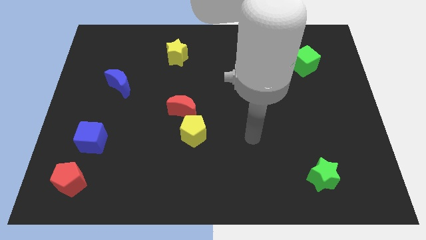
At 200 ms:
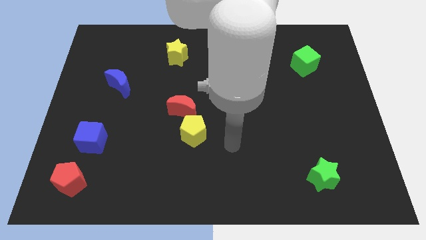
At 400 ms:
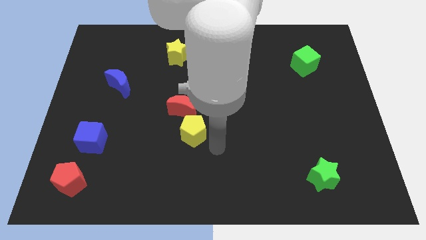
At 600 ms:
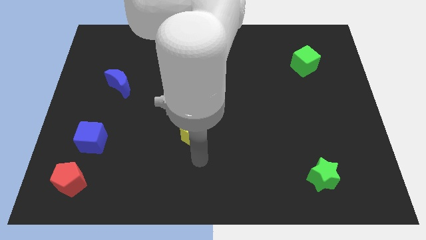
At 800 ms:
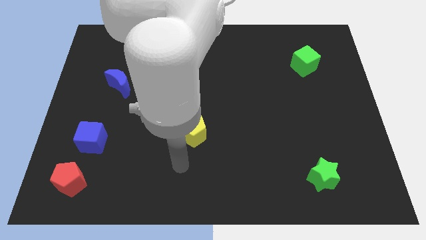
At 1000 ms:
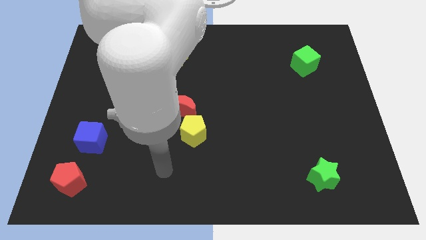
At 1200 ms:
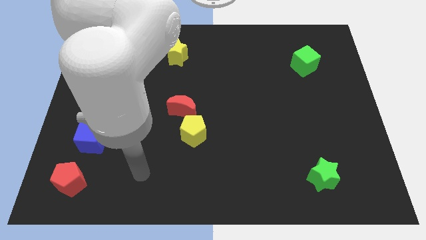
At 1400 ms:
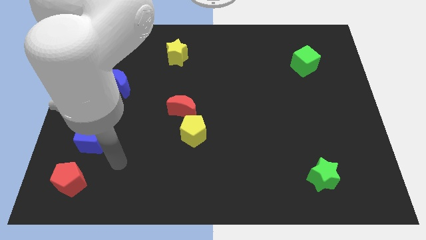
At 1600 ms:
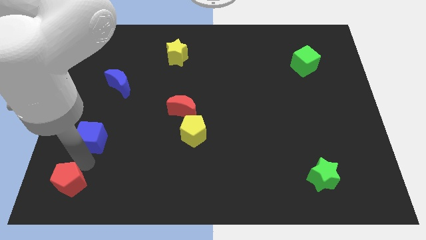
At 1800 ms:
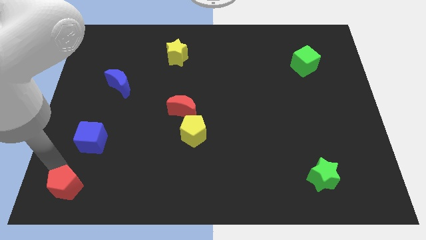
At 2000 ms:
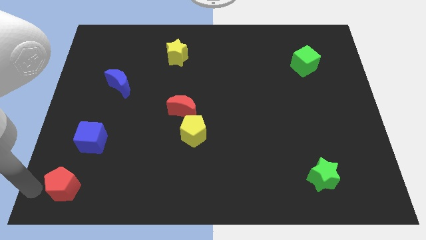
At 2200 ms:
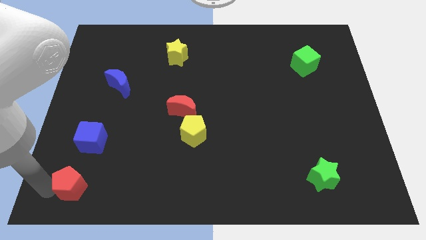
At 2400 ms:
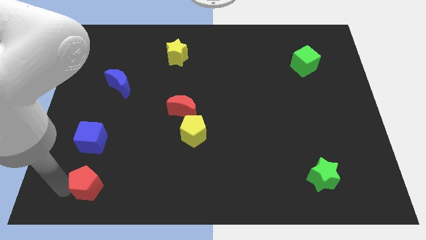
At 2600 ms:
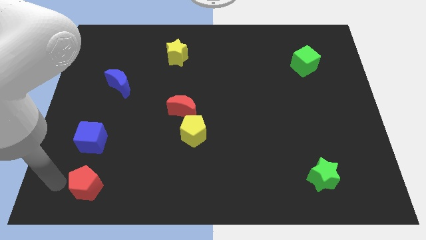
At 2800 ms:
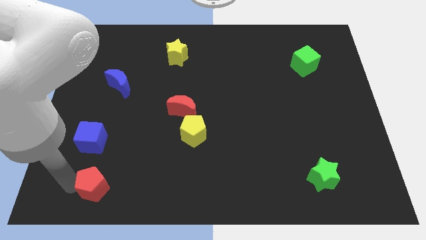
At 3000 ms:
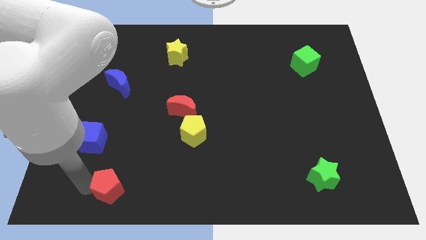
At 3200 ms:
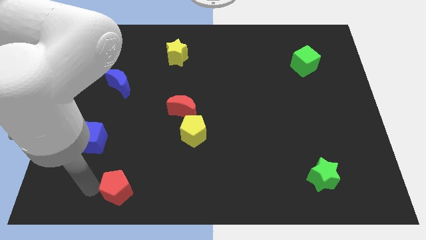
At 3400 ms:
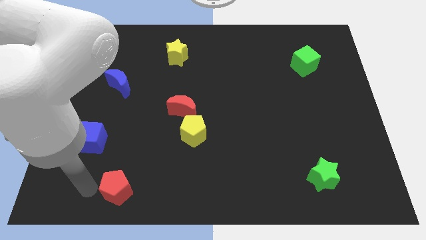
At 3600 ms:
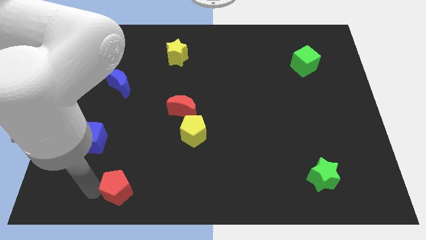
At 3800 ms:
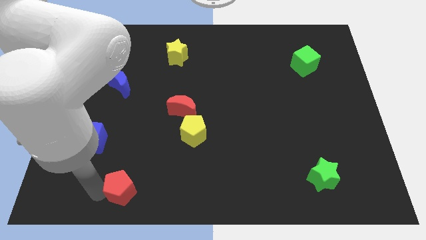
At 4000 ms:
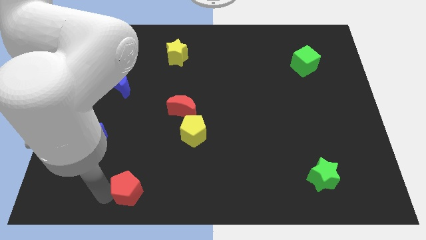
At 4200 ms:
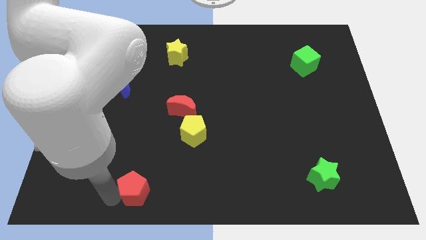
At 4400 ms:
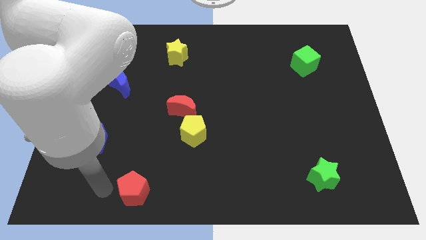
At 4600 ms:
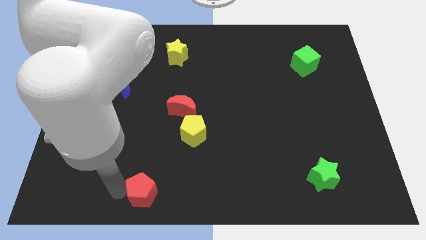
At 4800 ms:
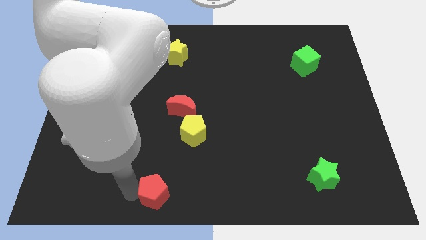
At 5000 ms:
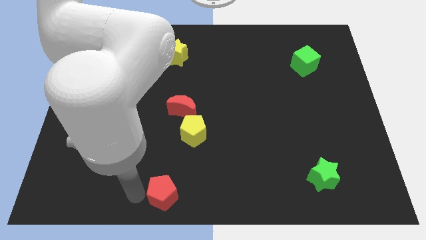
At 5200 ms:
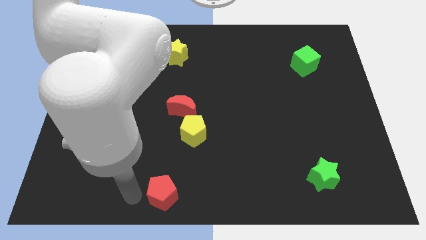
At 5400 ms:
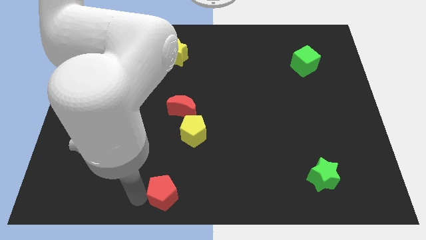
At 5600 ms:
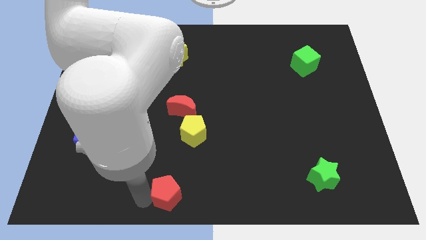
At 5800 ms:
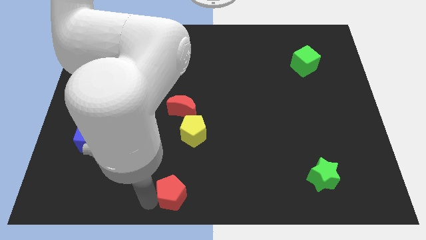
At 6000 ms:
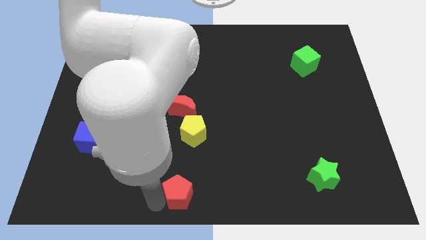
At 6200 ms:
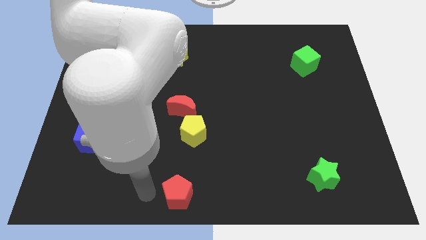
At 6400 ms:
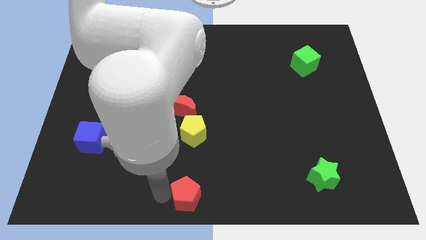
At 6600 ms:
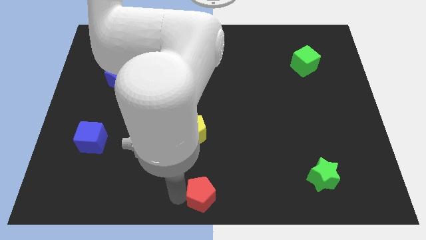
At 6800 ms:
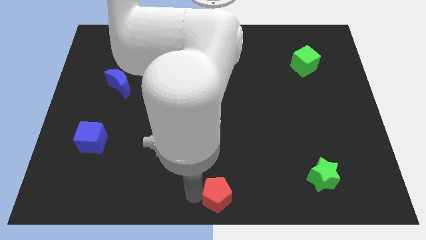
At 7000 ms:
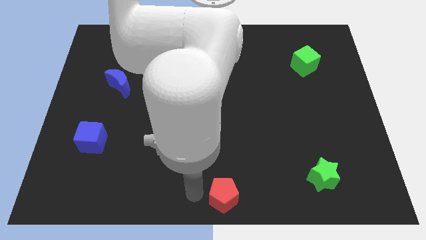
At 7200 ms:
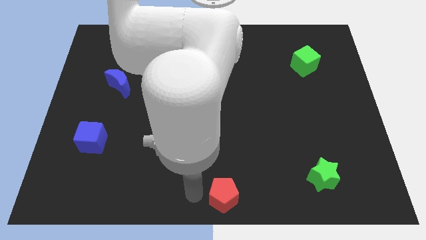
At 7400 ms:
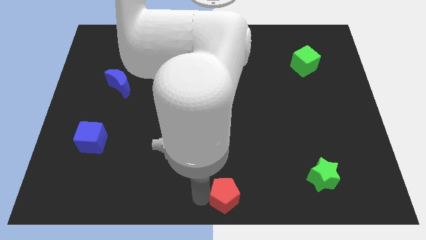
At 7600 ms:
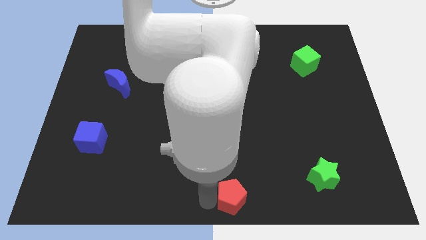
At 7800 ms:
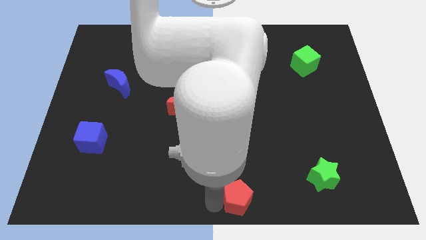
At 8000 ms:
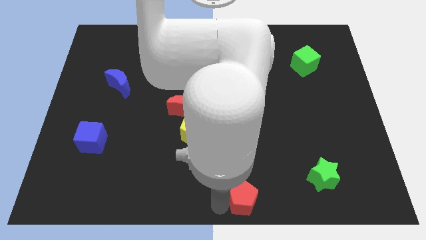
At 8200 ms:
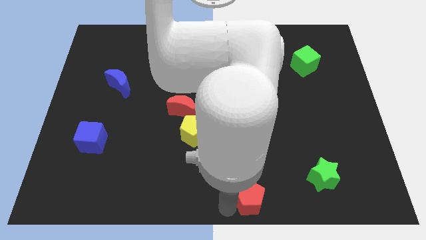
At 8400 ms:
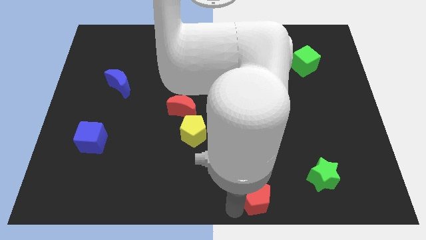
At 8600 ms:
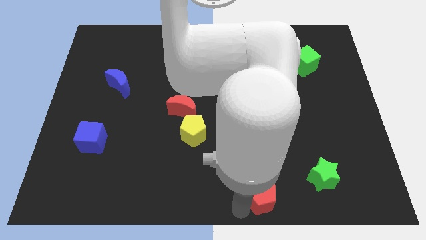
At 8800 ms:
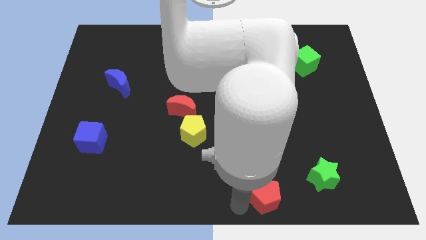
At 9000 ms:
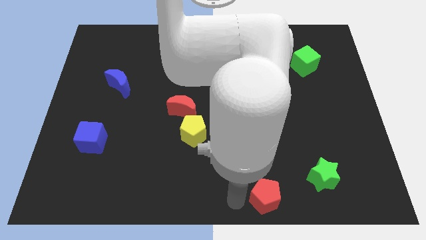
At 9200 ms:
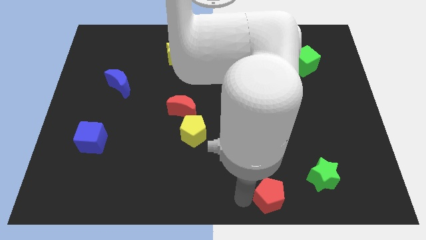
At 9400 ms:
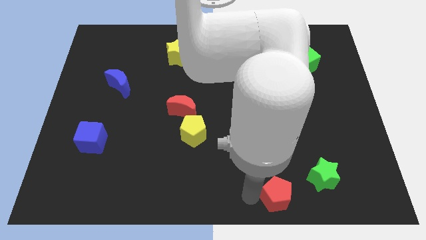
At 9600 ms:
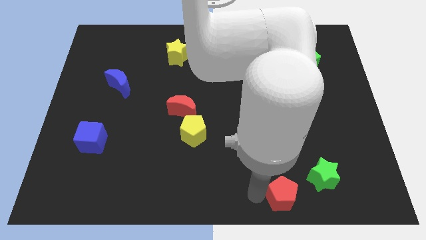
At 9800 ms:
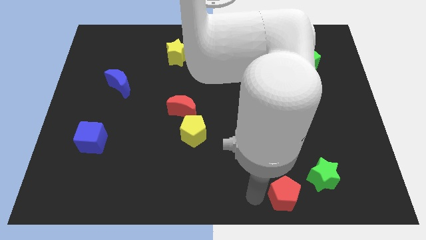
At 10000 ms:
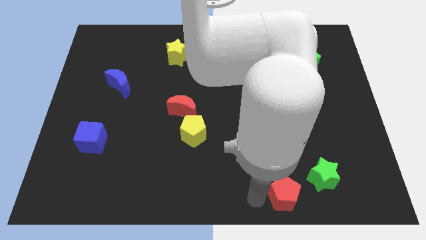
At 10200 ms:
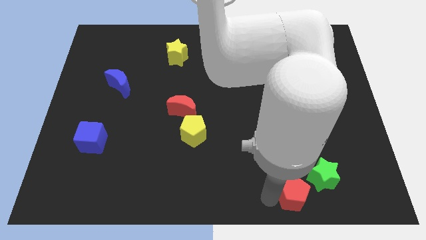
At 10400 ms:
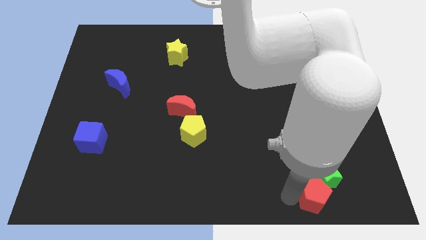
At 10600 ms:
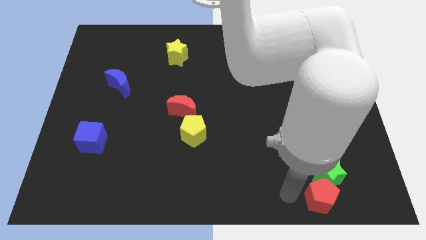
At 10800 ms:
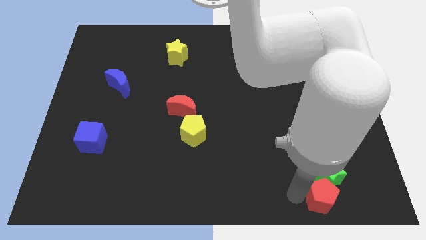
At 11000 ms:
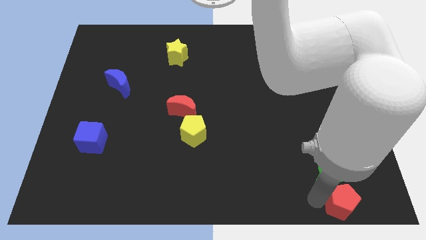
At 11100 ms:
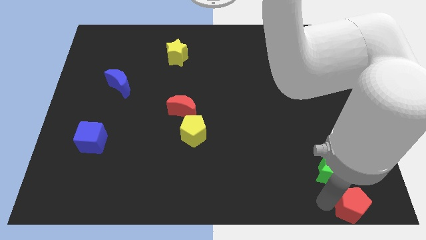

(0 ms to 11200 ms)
put the red pentagon to the bottom right of the board

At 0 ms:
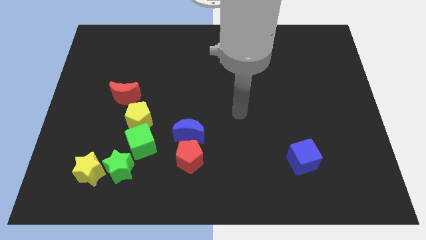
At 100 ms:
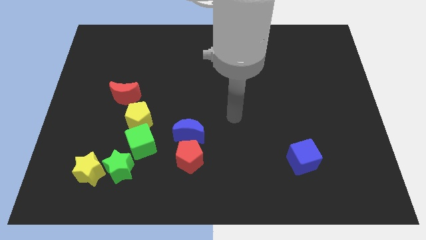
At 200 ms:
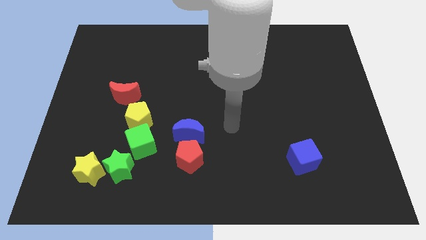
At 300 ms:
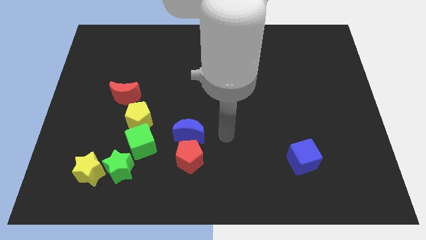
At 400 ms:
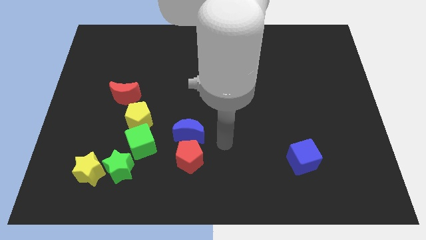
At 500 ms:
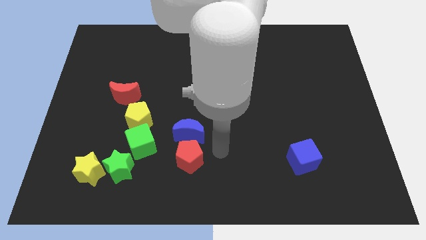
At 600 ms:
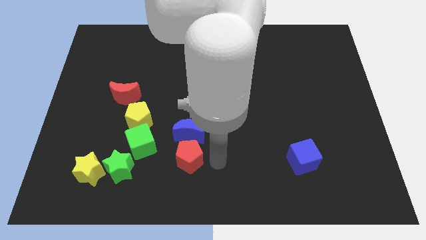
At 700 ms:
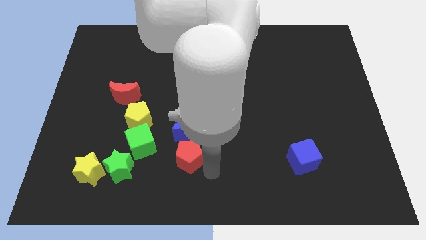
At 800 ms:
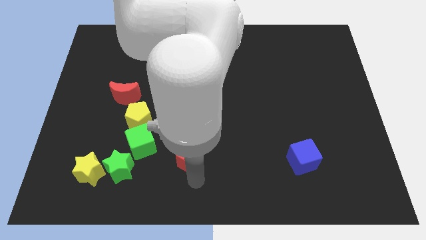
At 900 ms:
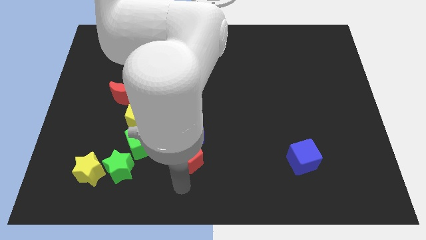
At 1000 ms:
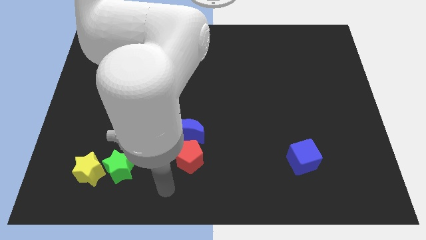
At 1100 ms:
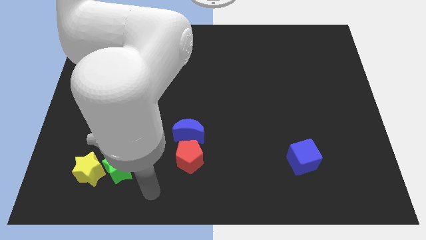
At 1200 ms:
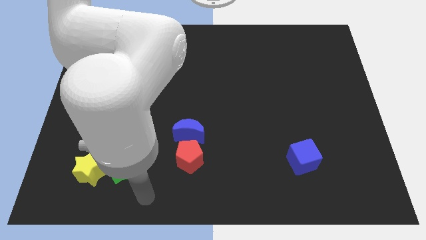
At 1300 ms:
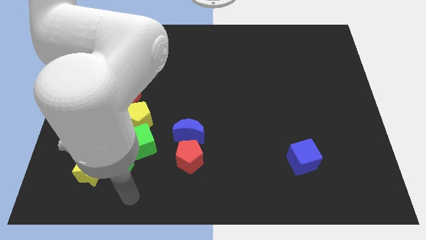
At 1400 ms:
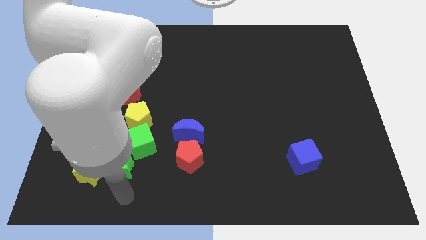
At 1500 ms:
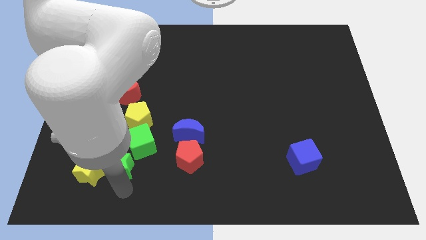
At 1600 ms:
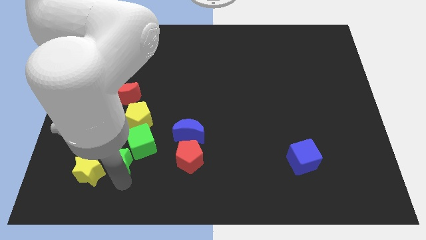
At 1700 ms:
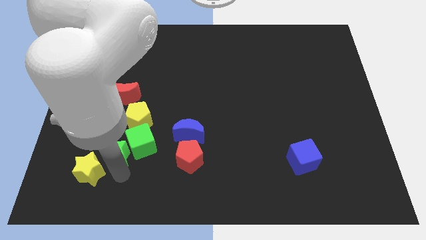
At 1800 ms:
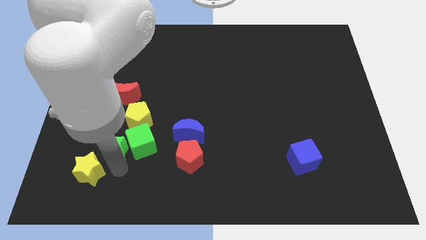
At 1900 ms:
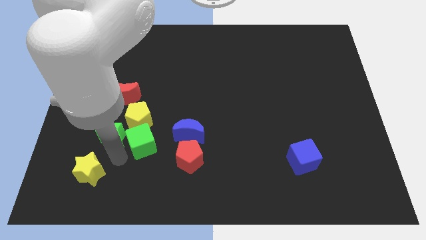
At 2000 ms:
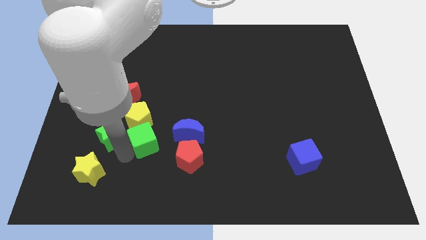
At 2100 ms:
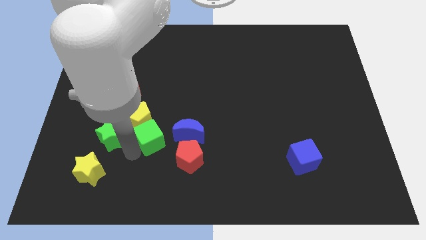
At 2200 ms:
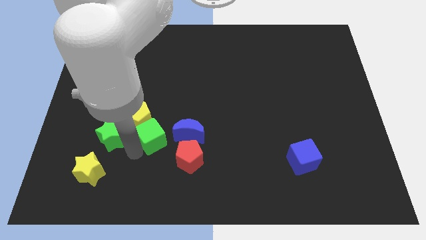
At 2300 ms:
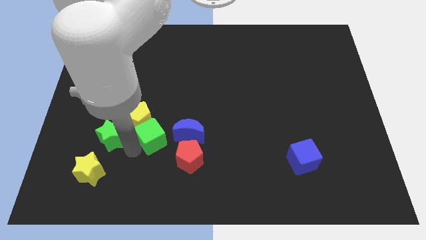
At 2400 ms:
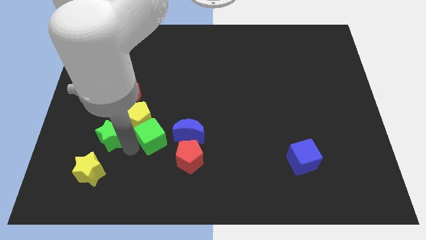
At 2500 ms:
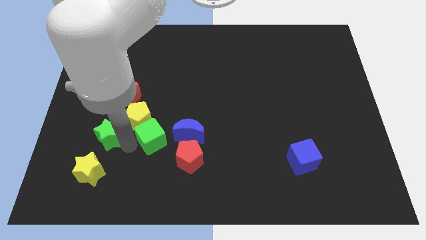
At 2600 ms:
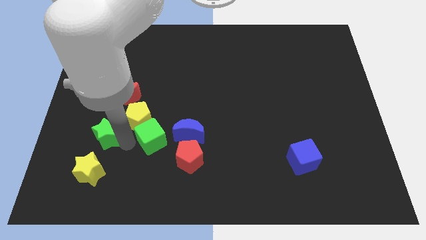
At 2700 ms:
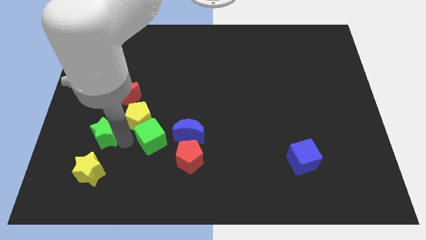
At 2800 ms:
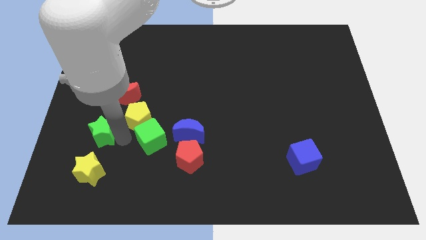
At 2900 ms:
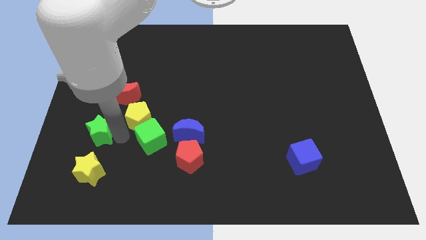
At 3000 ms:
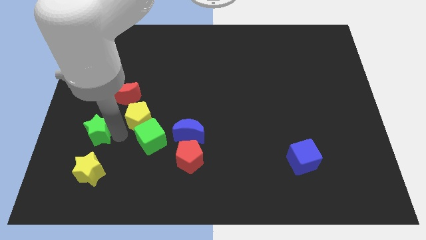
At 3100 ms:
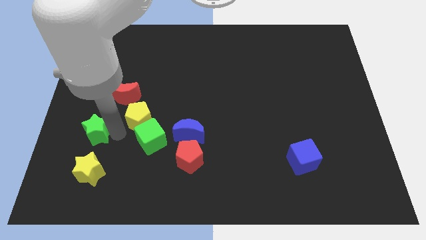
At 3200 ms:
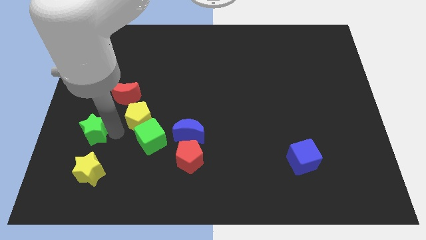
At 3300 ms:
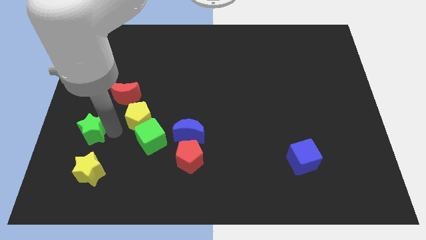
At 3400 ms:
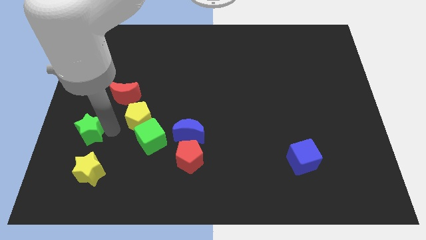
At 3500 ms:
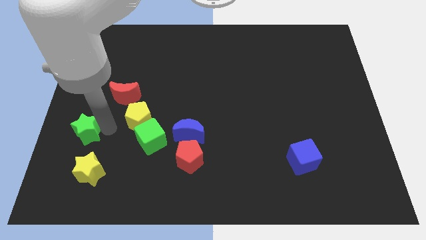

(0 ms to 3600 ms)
slide the green star to the left side
